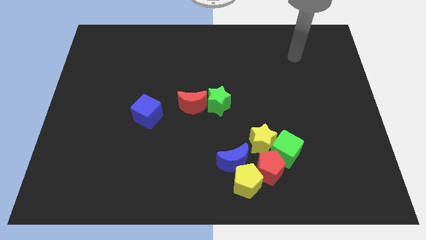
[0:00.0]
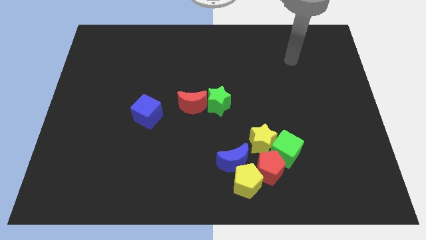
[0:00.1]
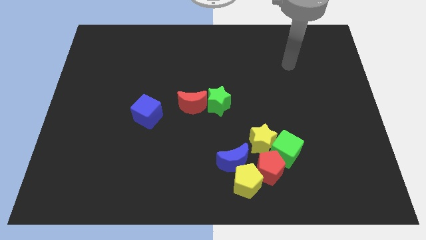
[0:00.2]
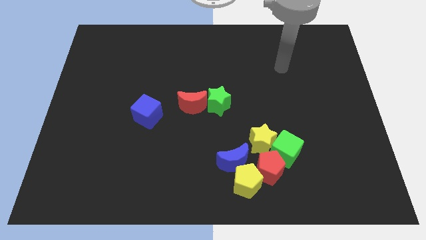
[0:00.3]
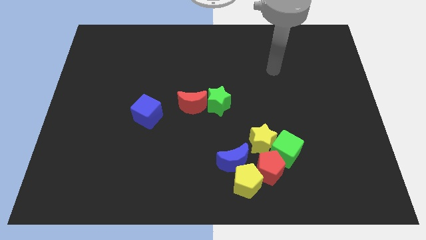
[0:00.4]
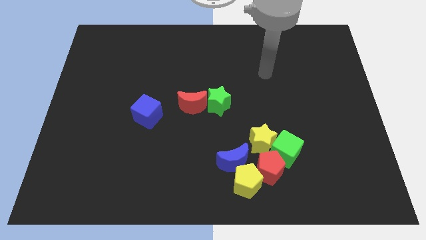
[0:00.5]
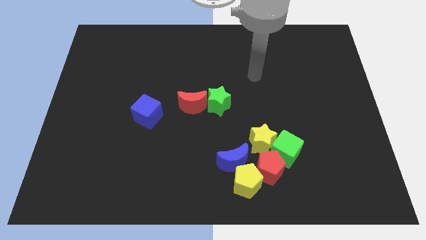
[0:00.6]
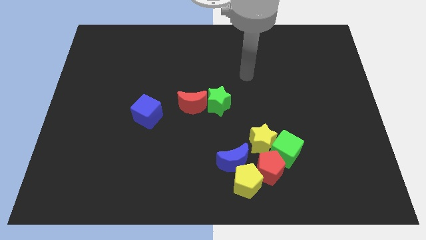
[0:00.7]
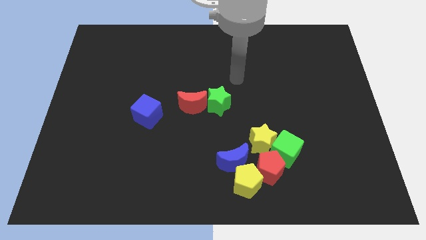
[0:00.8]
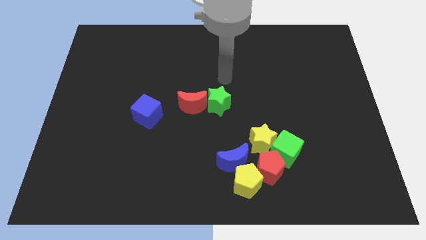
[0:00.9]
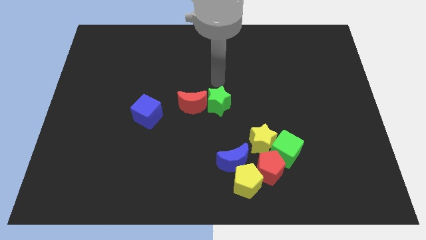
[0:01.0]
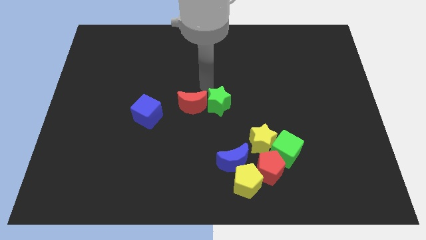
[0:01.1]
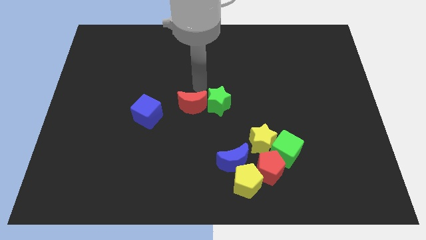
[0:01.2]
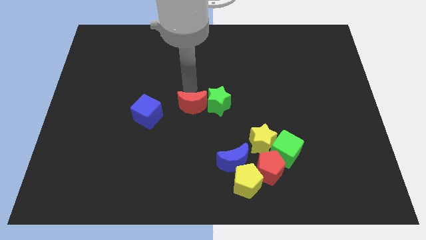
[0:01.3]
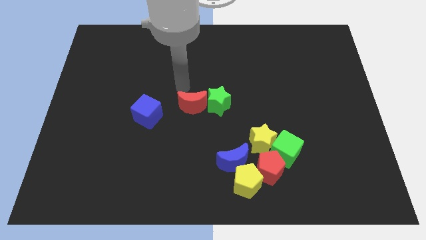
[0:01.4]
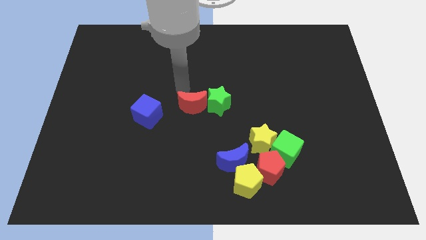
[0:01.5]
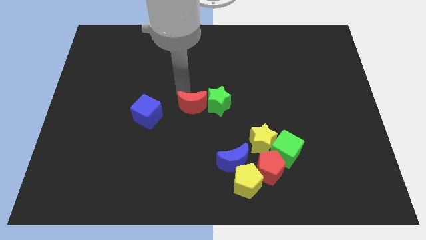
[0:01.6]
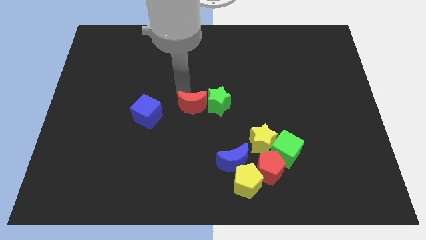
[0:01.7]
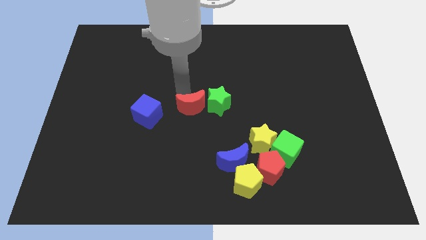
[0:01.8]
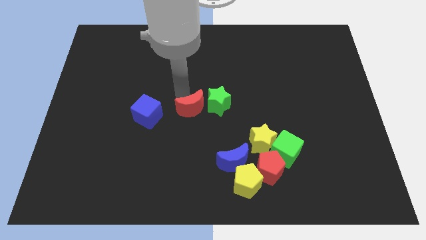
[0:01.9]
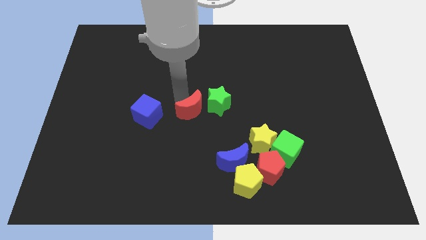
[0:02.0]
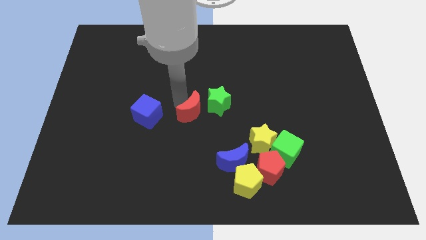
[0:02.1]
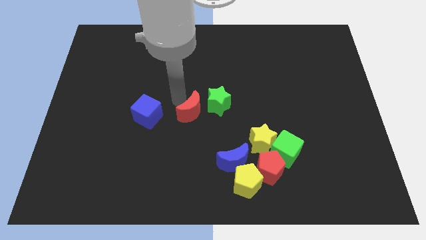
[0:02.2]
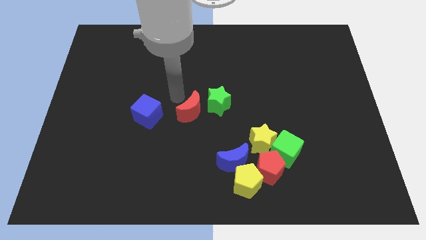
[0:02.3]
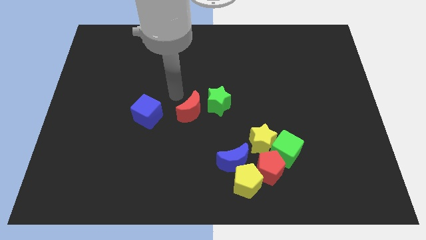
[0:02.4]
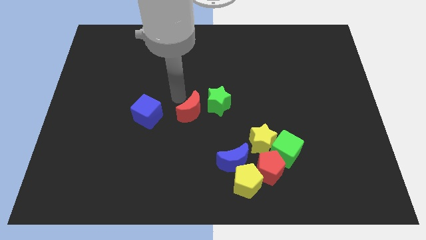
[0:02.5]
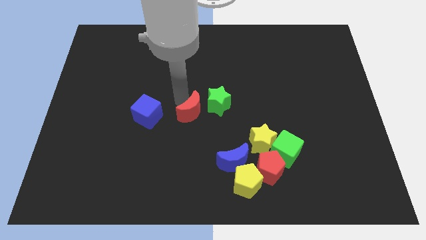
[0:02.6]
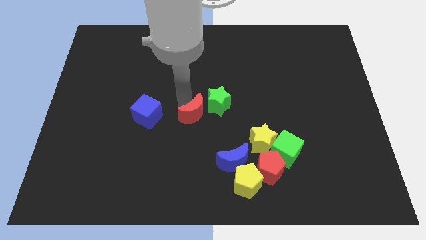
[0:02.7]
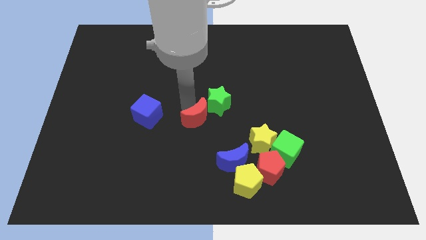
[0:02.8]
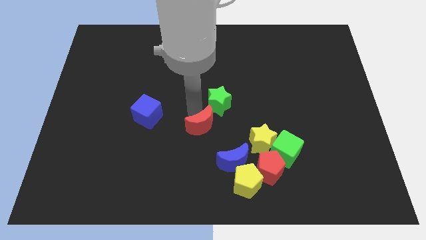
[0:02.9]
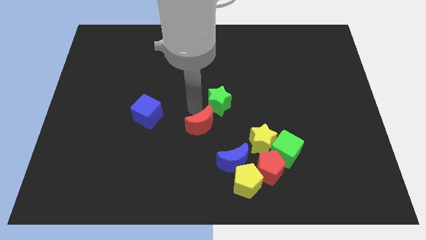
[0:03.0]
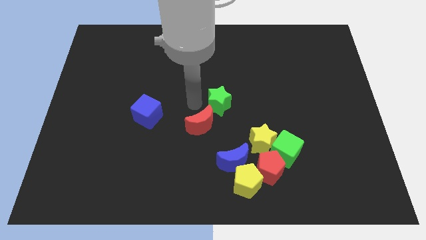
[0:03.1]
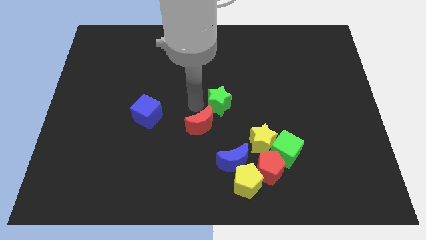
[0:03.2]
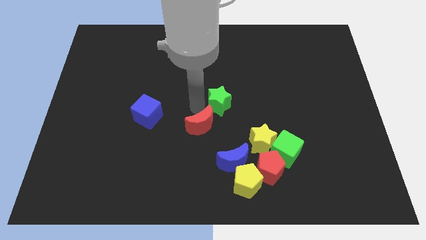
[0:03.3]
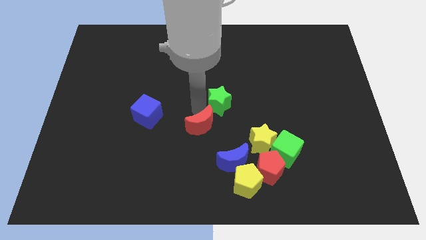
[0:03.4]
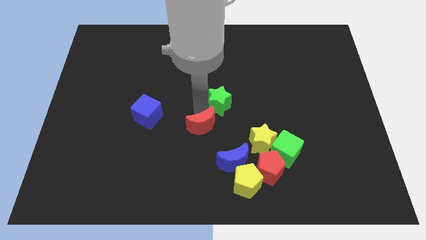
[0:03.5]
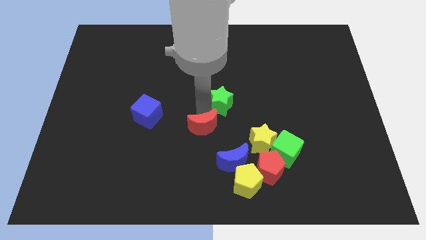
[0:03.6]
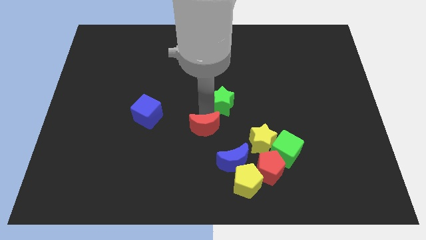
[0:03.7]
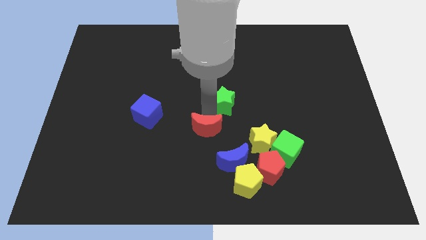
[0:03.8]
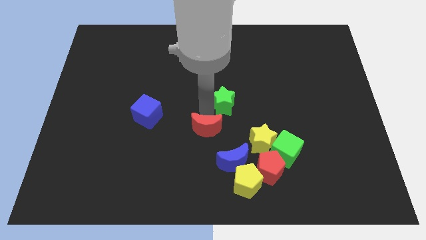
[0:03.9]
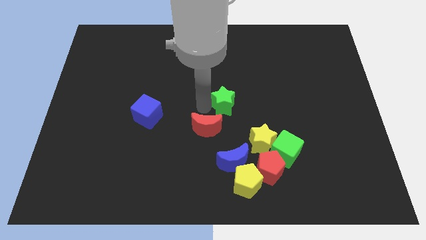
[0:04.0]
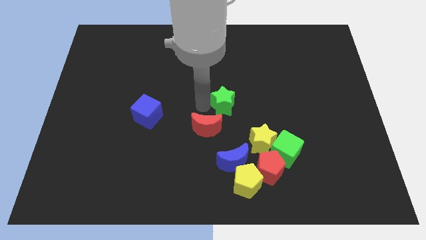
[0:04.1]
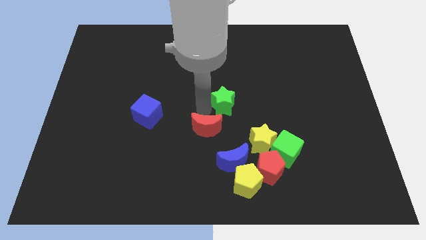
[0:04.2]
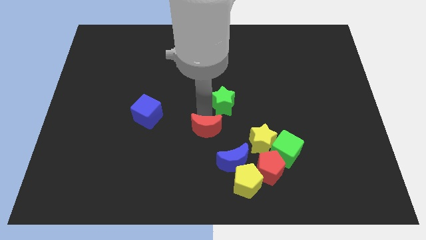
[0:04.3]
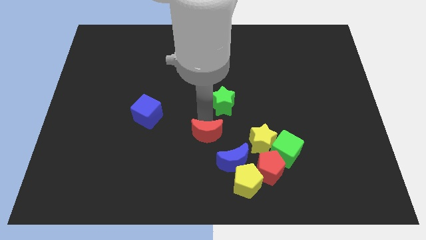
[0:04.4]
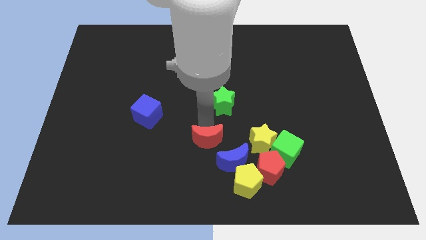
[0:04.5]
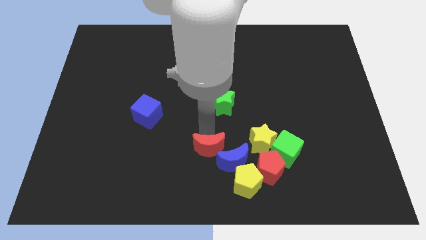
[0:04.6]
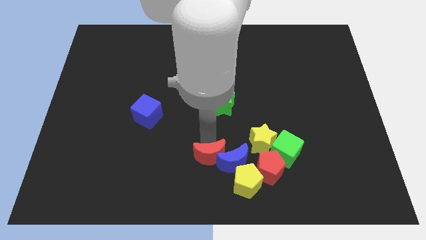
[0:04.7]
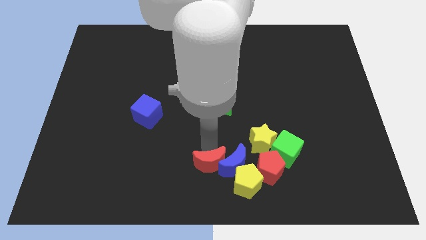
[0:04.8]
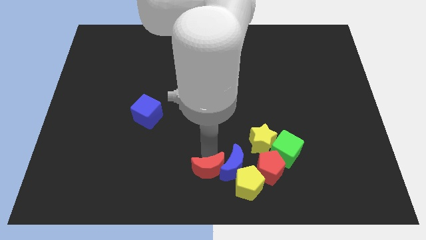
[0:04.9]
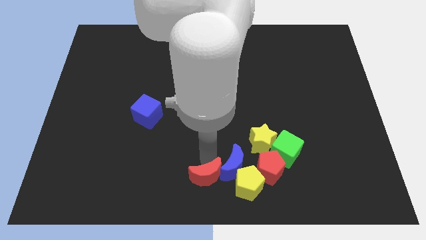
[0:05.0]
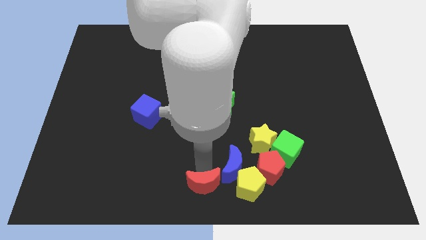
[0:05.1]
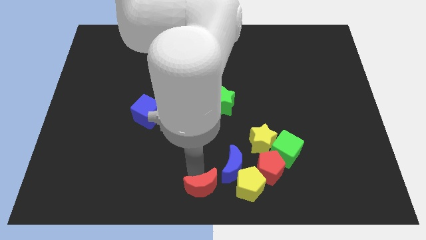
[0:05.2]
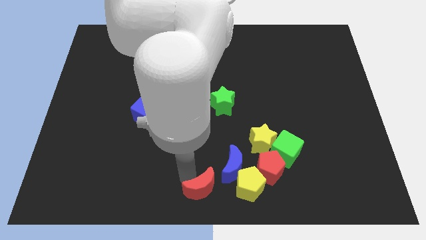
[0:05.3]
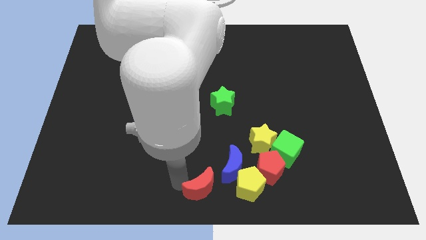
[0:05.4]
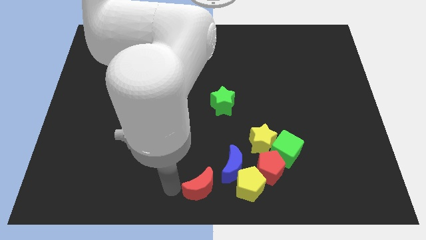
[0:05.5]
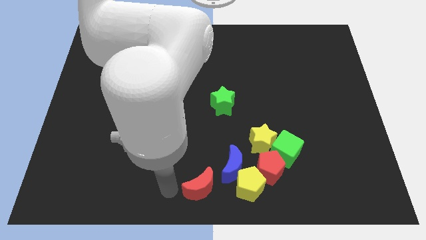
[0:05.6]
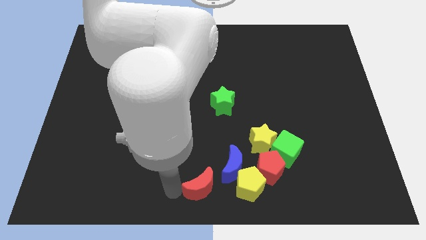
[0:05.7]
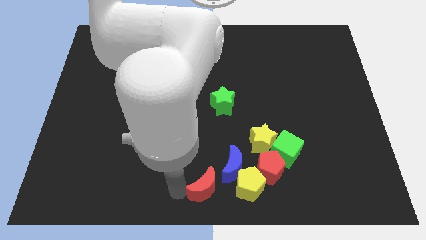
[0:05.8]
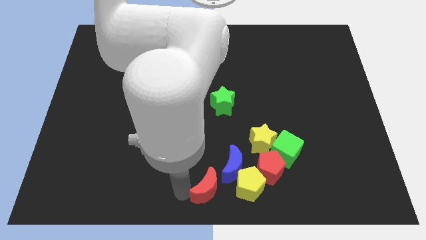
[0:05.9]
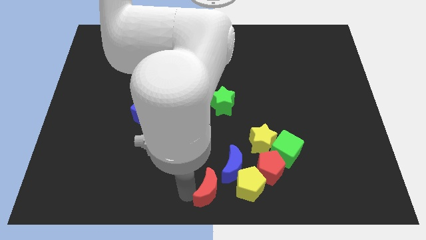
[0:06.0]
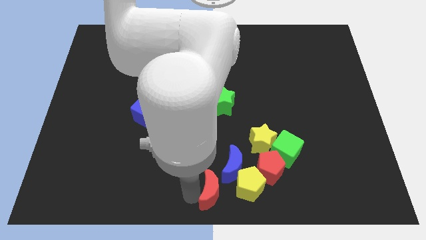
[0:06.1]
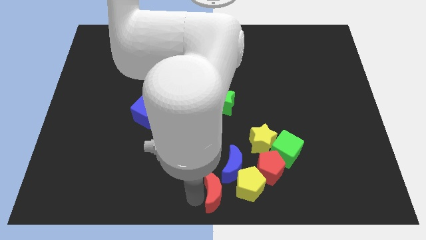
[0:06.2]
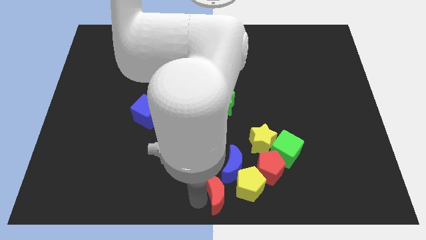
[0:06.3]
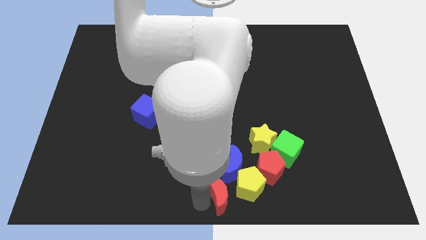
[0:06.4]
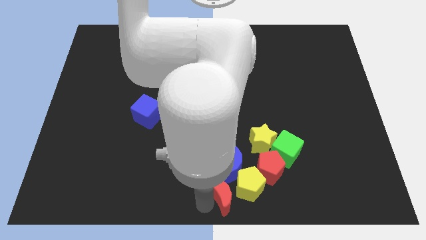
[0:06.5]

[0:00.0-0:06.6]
move the red moon next to the yellow pentagon

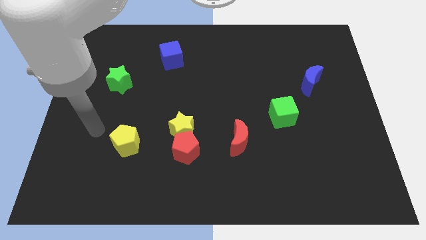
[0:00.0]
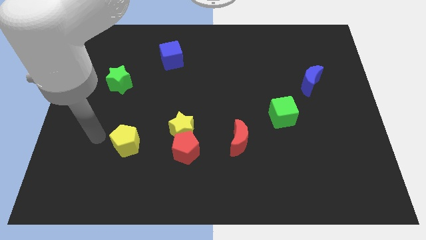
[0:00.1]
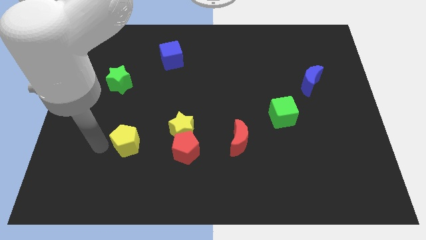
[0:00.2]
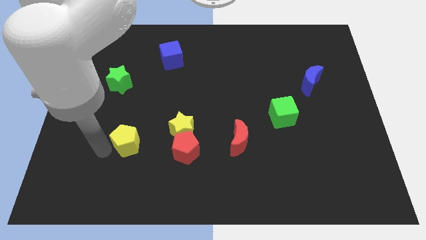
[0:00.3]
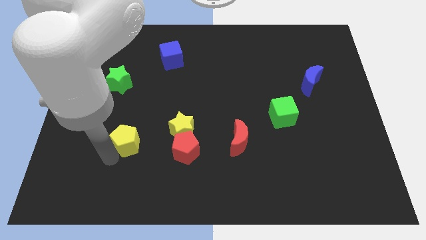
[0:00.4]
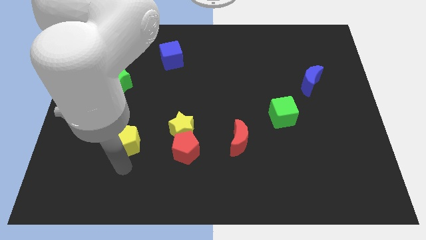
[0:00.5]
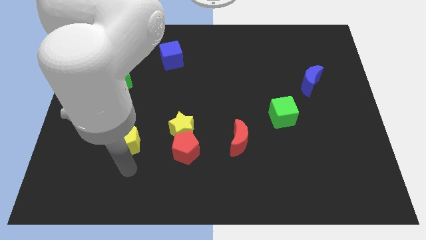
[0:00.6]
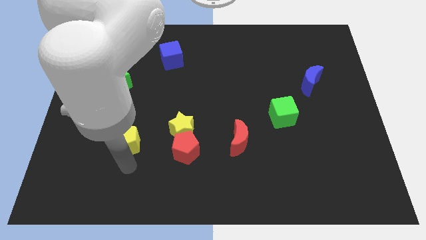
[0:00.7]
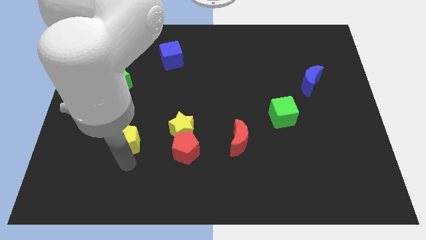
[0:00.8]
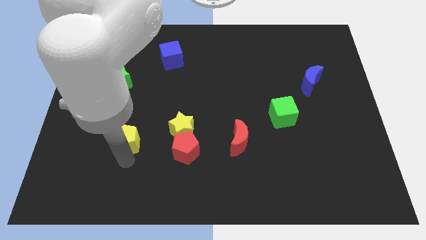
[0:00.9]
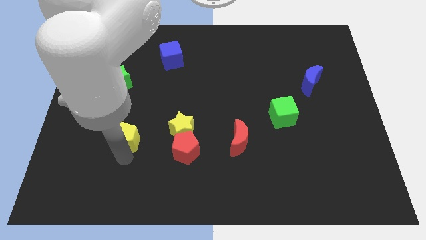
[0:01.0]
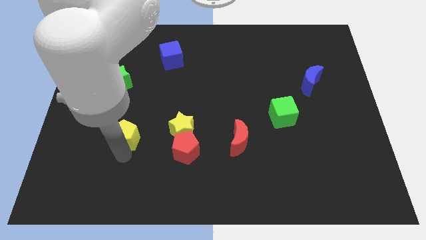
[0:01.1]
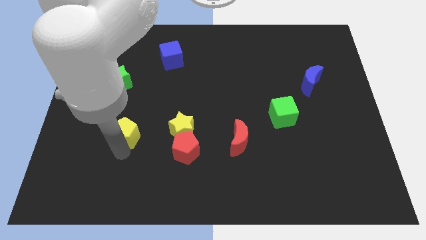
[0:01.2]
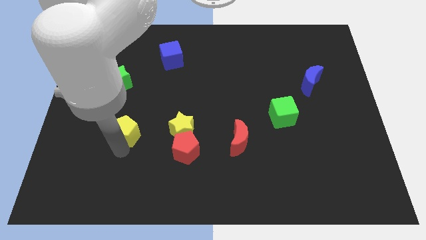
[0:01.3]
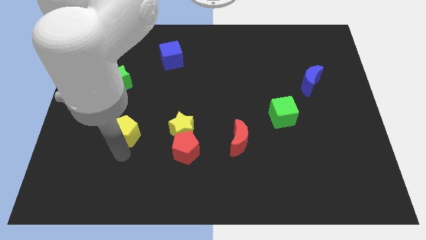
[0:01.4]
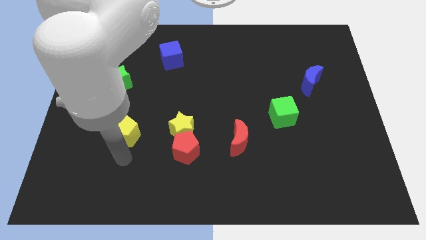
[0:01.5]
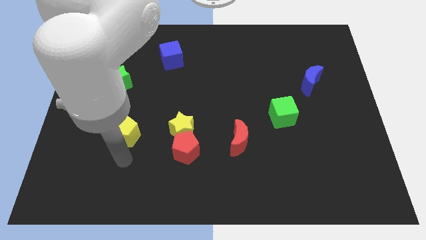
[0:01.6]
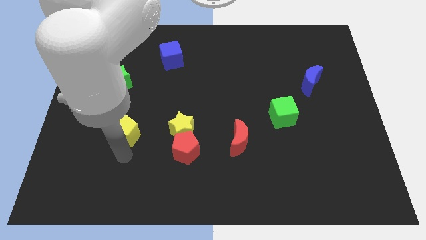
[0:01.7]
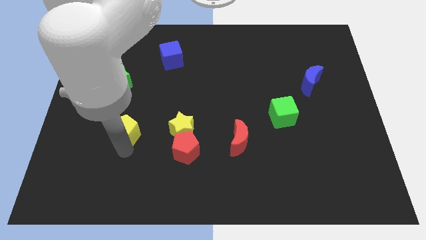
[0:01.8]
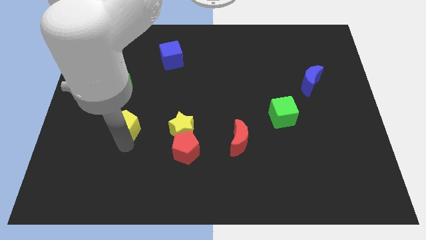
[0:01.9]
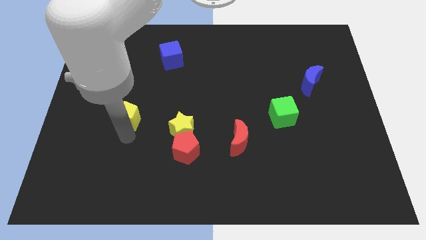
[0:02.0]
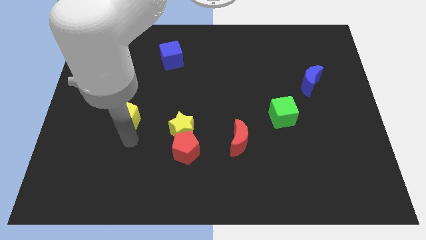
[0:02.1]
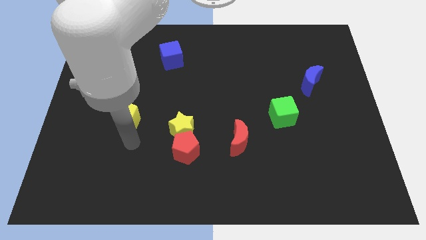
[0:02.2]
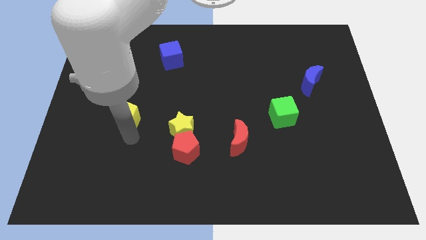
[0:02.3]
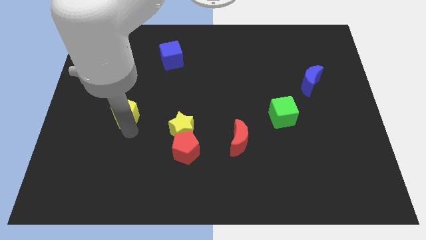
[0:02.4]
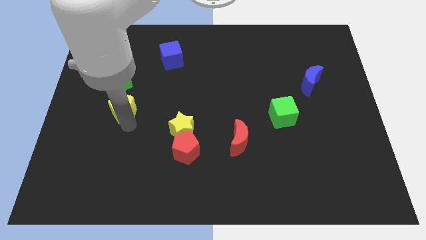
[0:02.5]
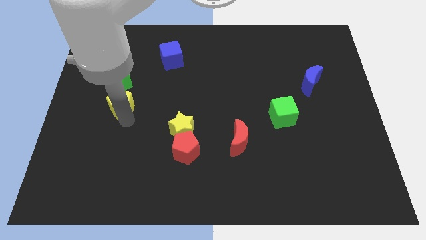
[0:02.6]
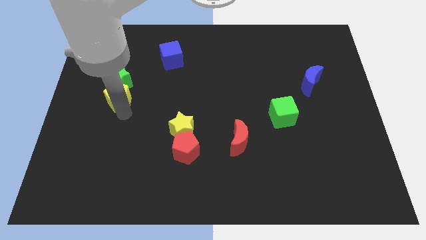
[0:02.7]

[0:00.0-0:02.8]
push the yellow pentagon to the green star
